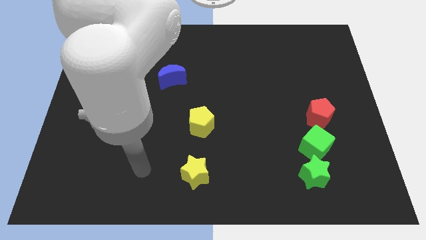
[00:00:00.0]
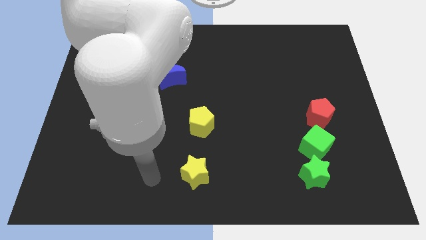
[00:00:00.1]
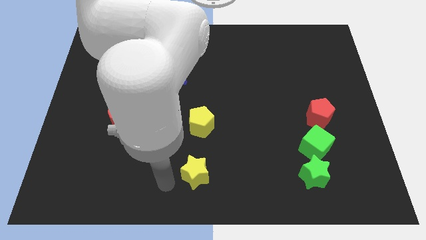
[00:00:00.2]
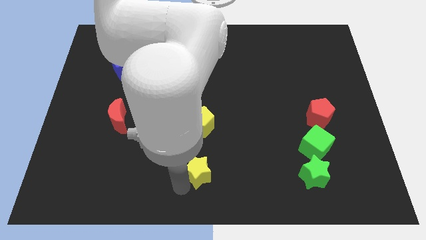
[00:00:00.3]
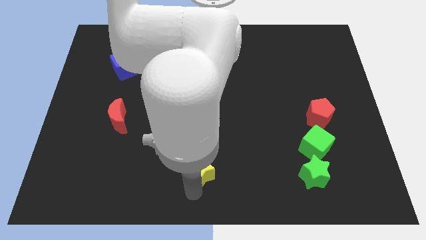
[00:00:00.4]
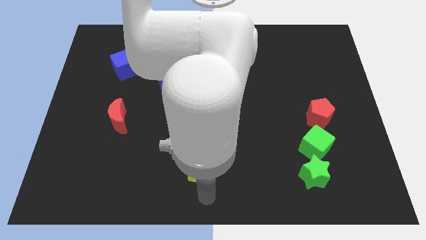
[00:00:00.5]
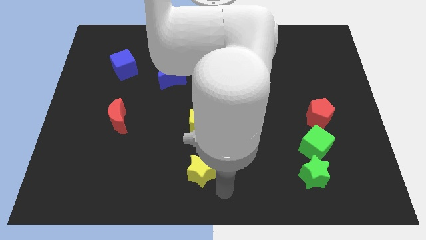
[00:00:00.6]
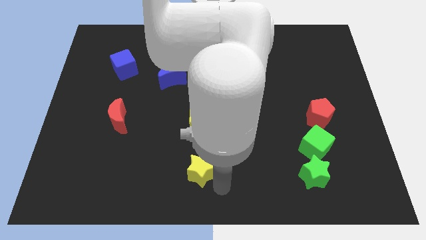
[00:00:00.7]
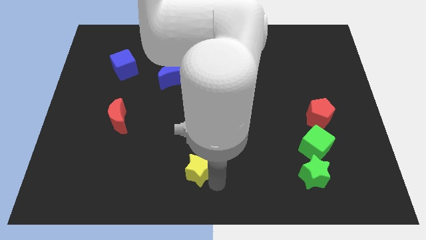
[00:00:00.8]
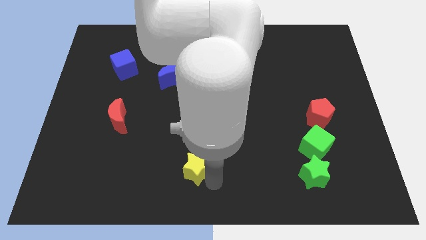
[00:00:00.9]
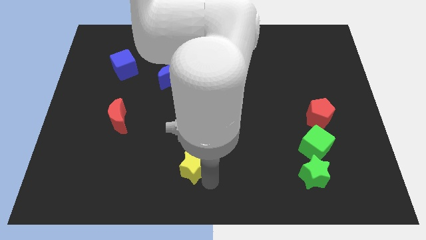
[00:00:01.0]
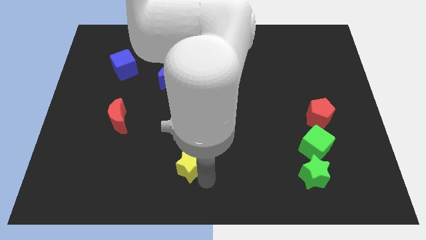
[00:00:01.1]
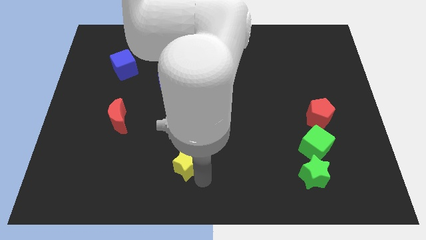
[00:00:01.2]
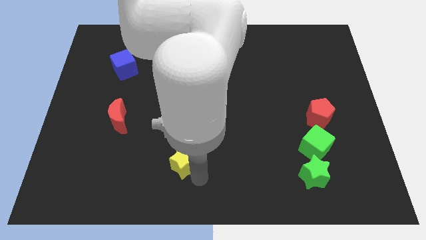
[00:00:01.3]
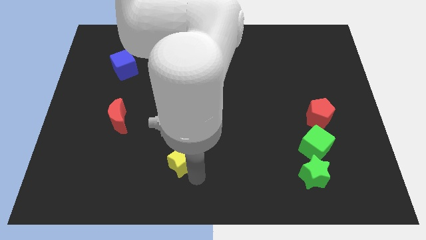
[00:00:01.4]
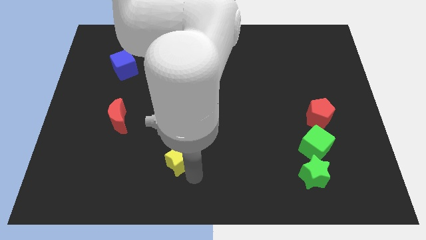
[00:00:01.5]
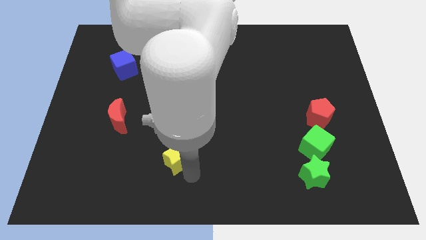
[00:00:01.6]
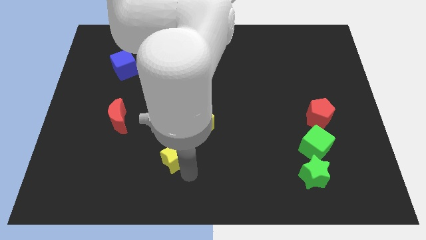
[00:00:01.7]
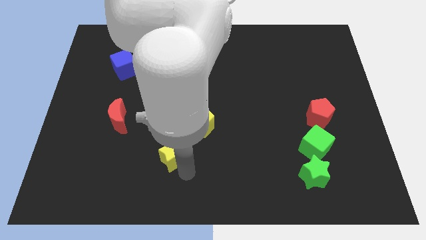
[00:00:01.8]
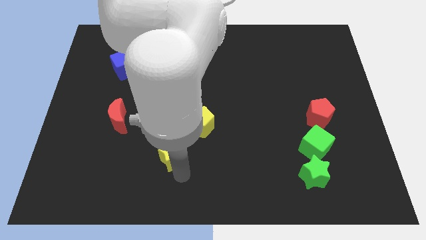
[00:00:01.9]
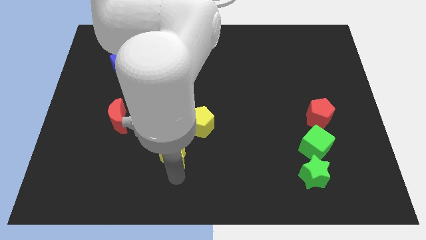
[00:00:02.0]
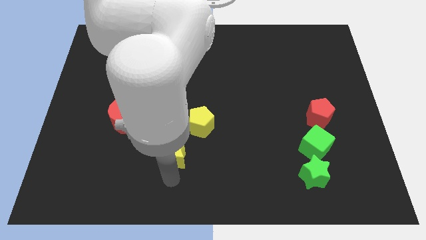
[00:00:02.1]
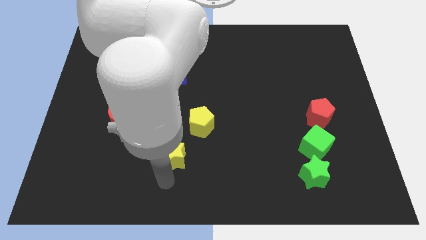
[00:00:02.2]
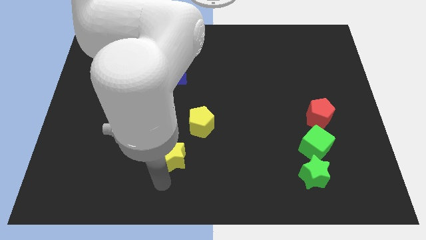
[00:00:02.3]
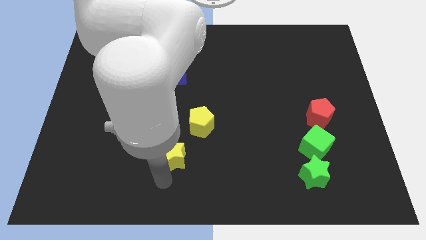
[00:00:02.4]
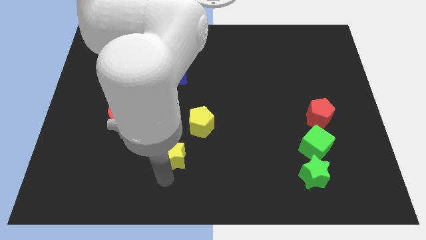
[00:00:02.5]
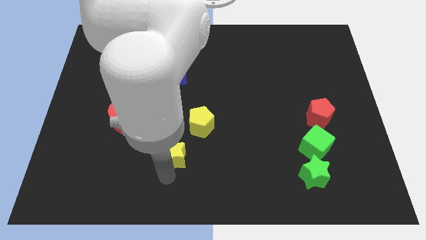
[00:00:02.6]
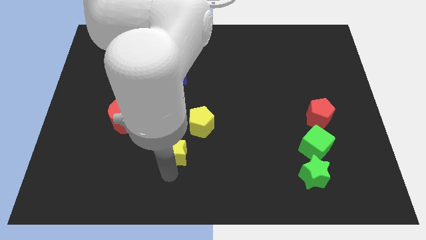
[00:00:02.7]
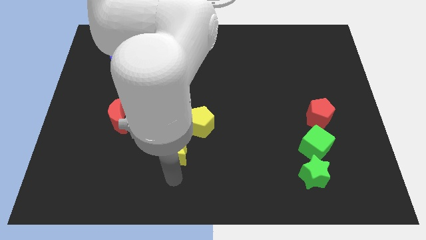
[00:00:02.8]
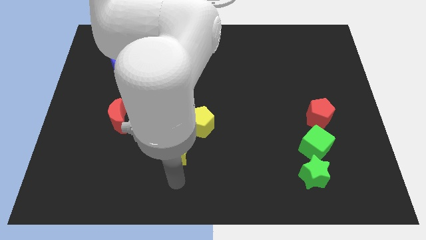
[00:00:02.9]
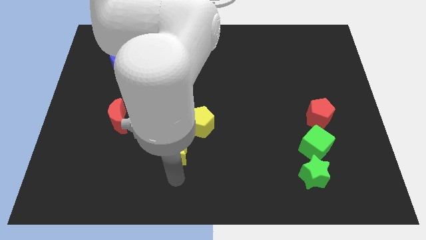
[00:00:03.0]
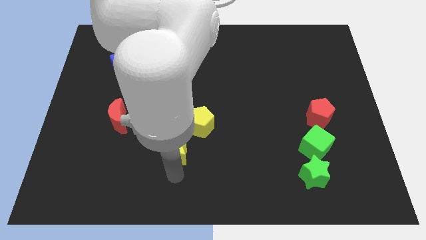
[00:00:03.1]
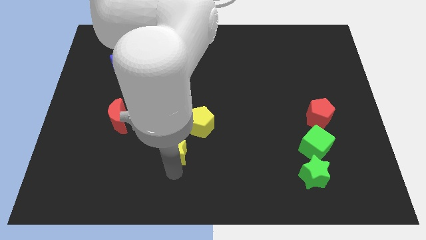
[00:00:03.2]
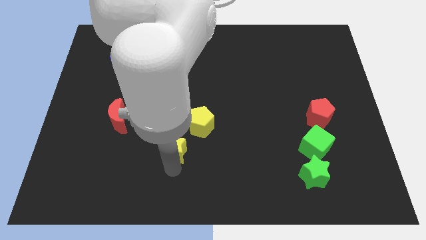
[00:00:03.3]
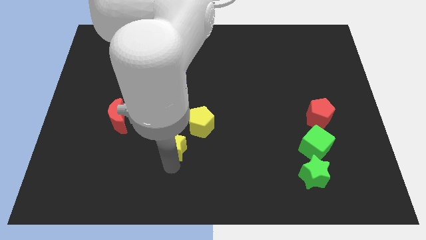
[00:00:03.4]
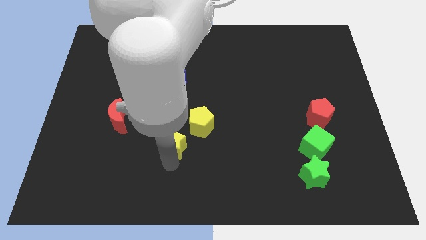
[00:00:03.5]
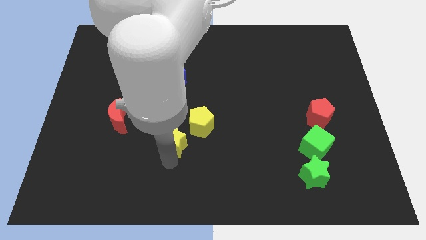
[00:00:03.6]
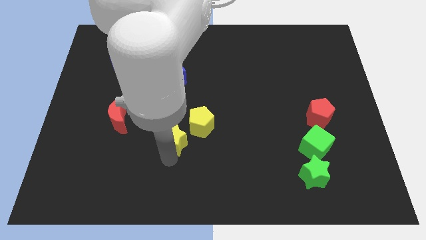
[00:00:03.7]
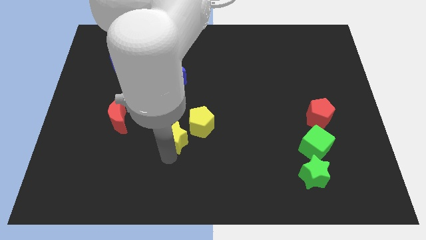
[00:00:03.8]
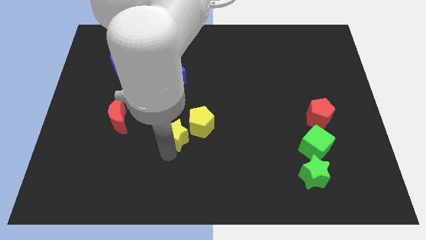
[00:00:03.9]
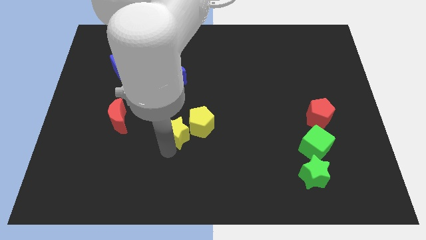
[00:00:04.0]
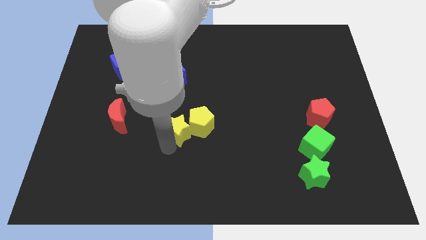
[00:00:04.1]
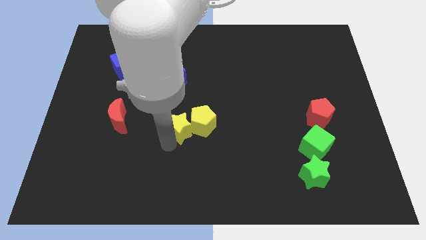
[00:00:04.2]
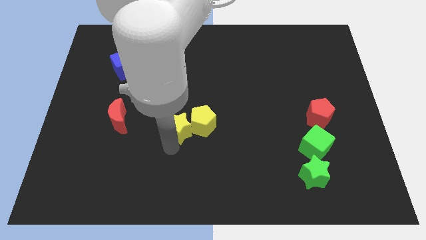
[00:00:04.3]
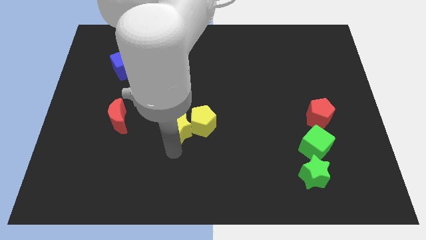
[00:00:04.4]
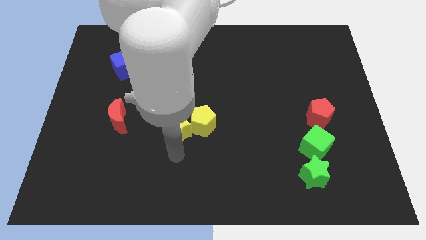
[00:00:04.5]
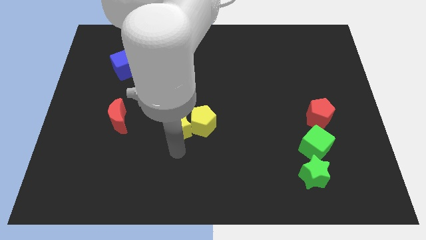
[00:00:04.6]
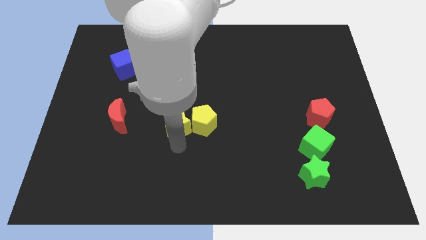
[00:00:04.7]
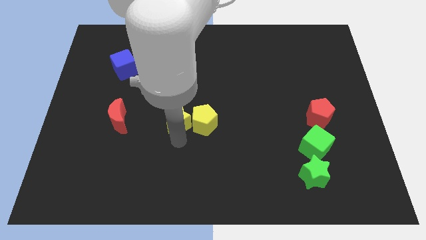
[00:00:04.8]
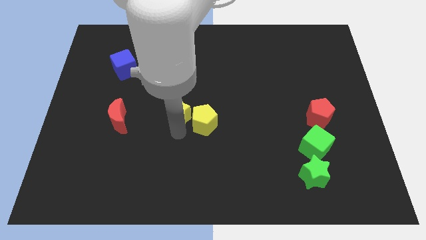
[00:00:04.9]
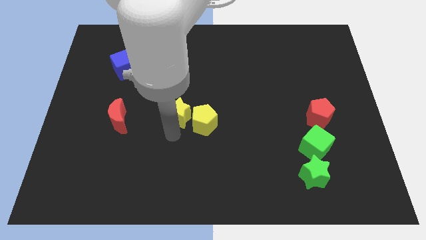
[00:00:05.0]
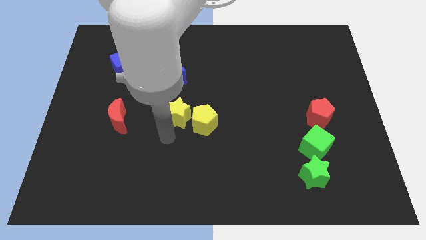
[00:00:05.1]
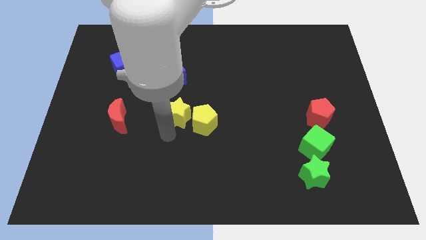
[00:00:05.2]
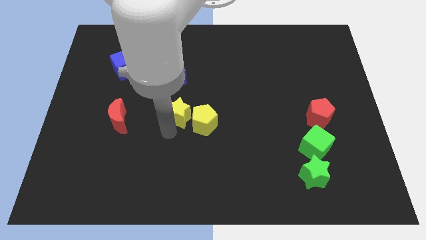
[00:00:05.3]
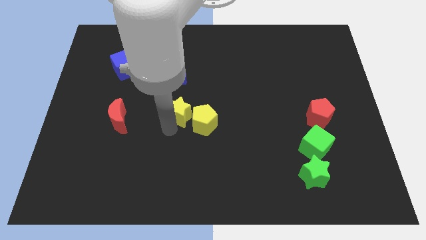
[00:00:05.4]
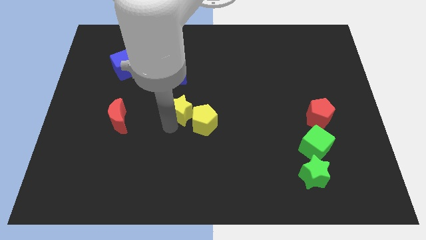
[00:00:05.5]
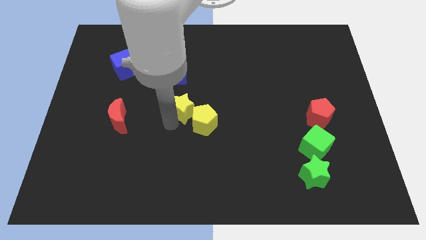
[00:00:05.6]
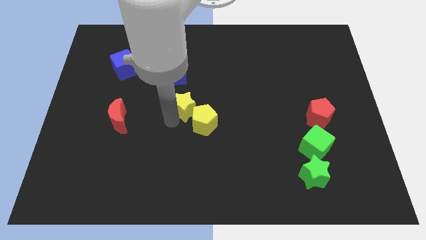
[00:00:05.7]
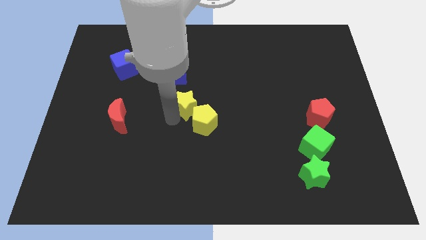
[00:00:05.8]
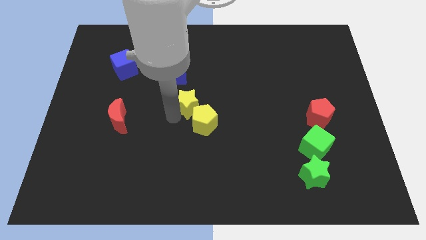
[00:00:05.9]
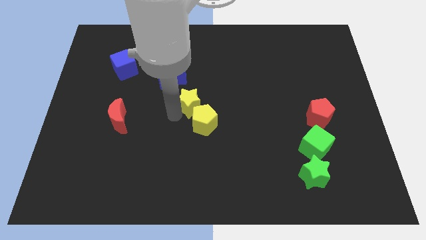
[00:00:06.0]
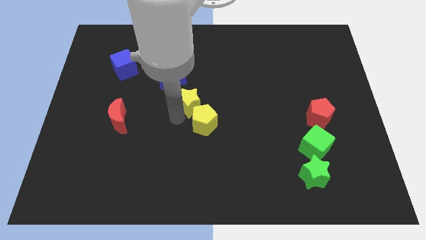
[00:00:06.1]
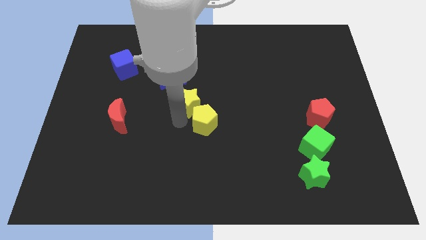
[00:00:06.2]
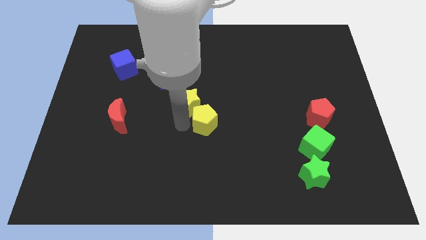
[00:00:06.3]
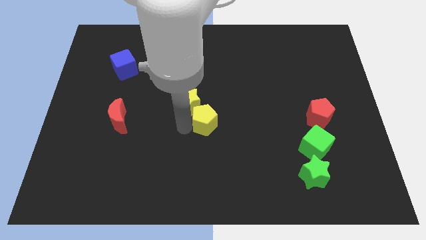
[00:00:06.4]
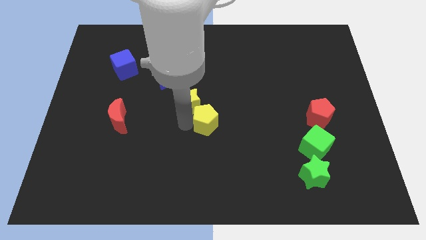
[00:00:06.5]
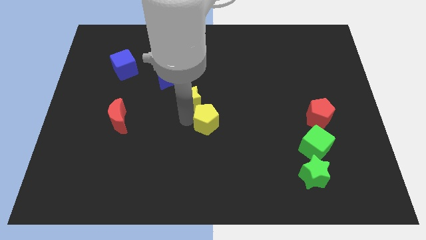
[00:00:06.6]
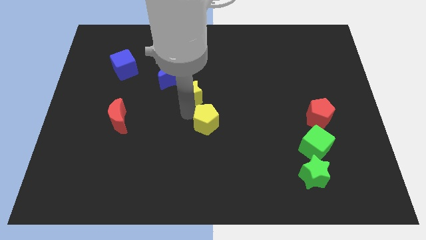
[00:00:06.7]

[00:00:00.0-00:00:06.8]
move the yellow star up

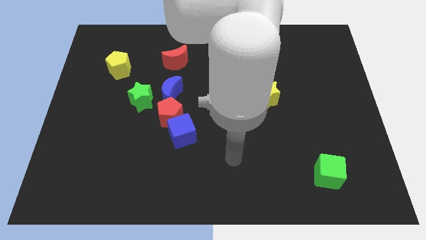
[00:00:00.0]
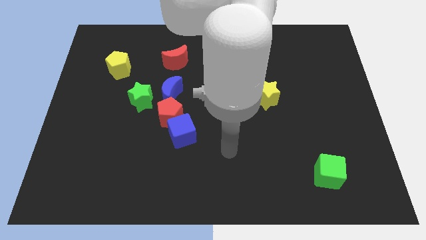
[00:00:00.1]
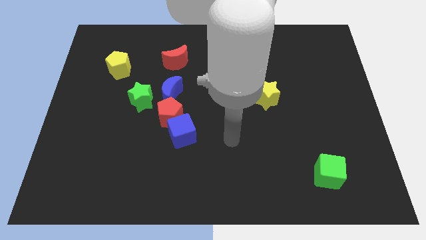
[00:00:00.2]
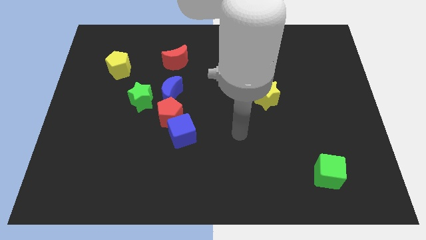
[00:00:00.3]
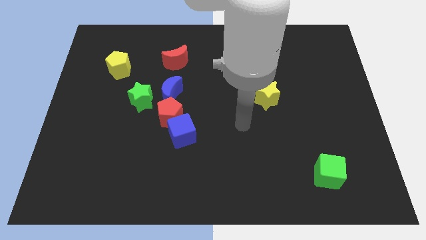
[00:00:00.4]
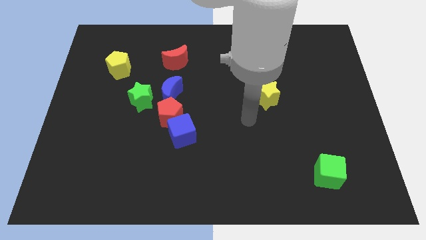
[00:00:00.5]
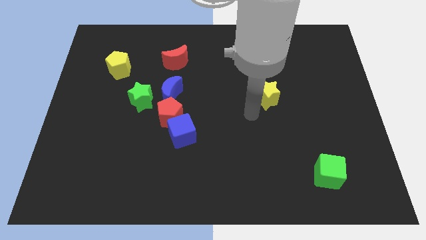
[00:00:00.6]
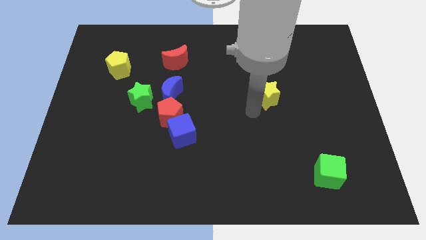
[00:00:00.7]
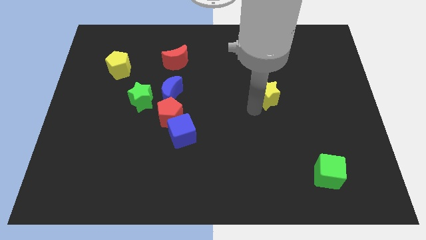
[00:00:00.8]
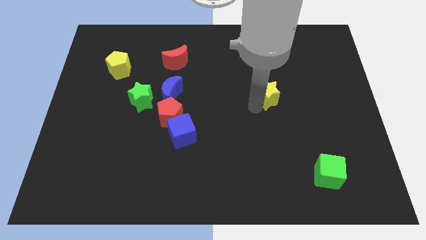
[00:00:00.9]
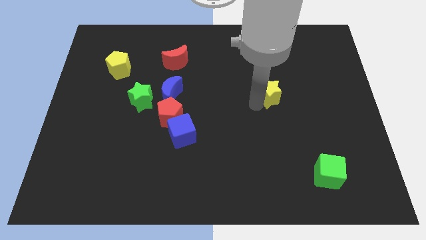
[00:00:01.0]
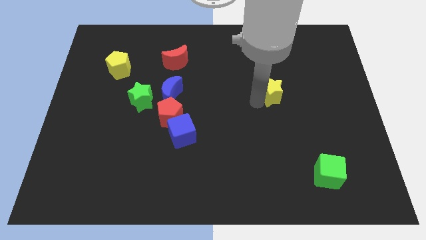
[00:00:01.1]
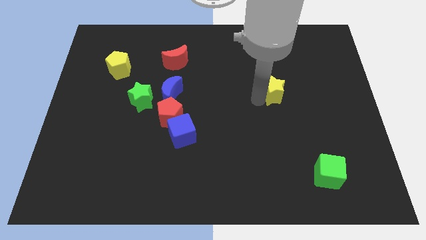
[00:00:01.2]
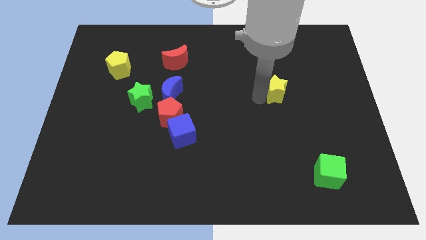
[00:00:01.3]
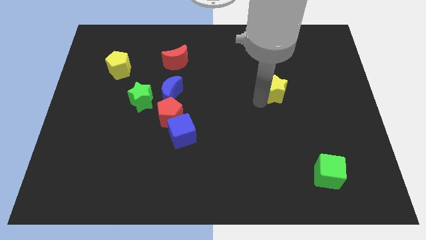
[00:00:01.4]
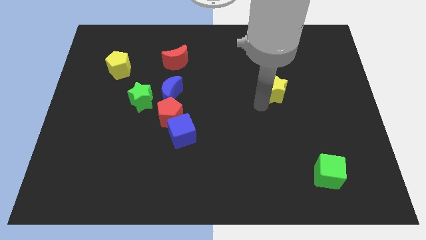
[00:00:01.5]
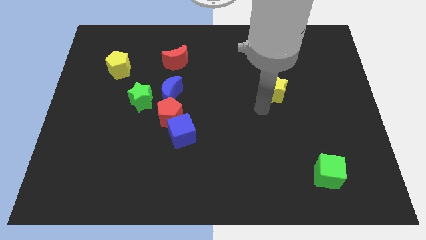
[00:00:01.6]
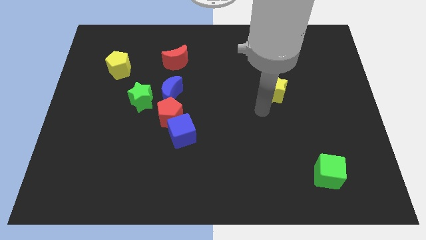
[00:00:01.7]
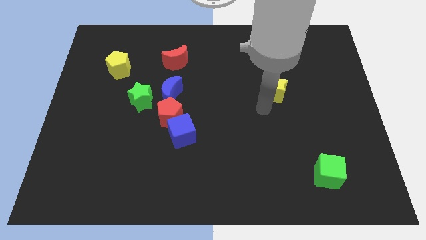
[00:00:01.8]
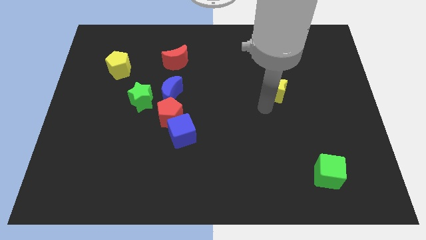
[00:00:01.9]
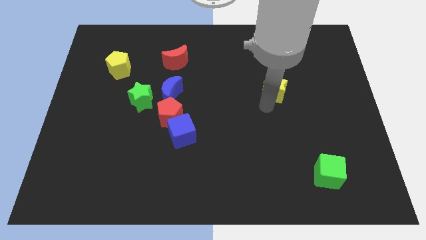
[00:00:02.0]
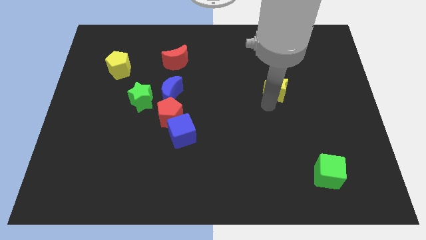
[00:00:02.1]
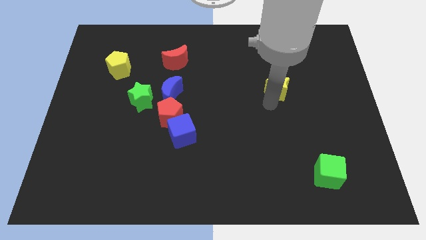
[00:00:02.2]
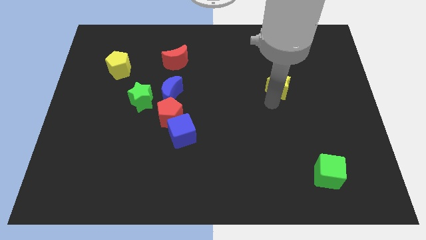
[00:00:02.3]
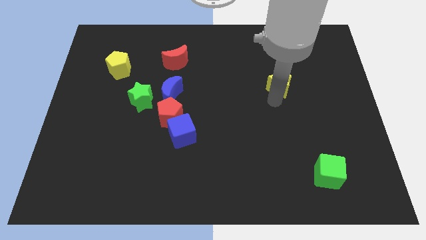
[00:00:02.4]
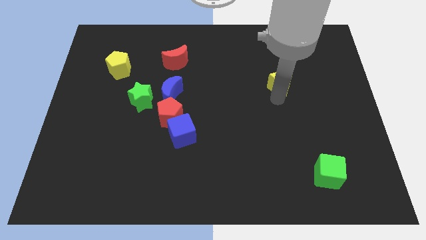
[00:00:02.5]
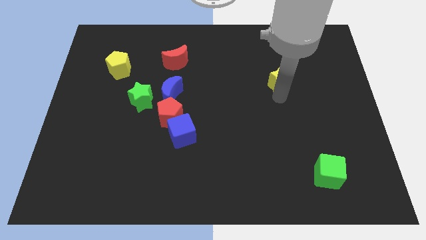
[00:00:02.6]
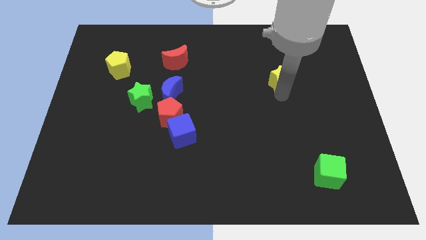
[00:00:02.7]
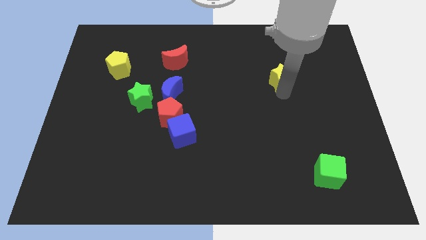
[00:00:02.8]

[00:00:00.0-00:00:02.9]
slide the yellow star slightly up and to the right diagonally
